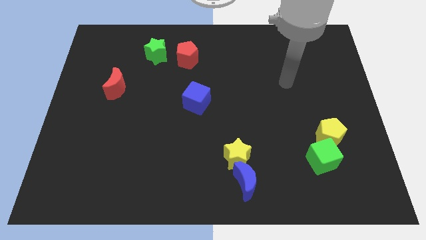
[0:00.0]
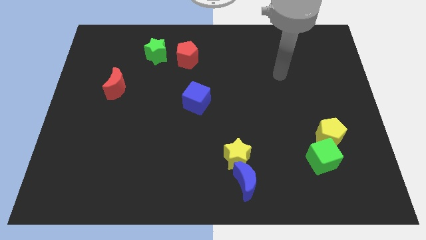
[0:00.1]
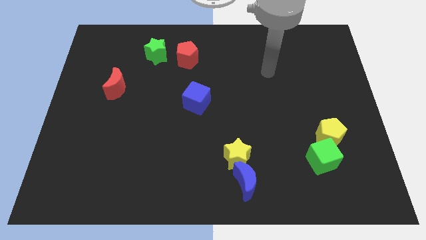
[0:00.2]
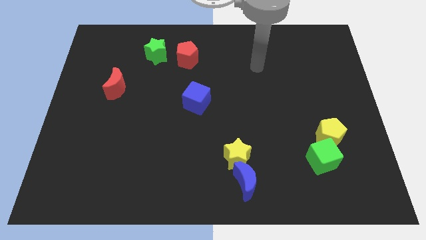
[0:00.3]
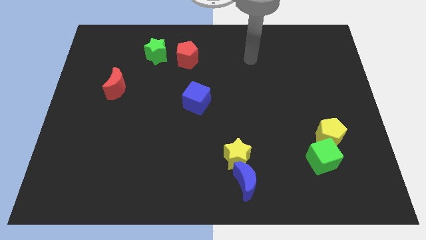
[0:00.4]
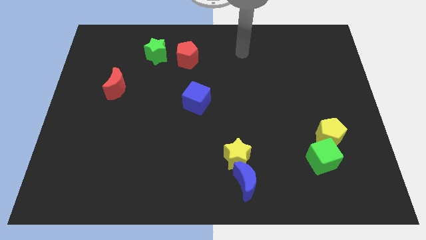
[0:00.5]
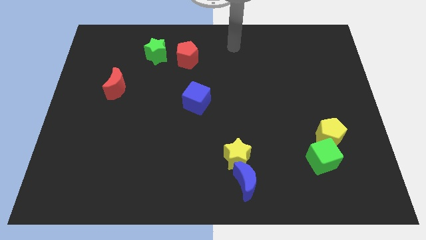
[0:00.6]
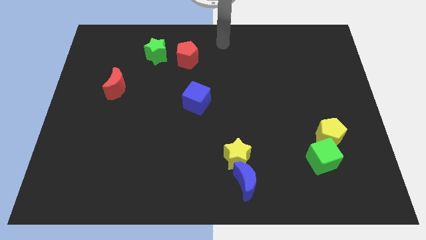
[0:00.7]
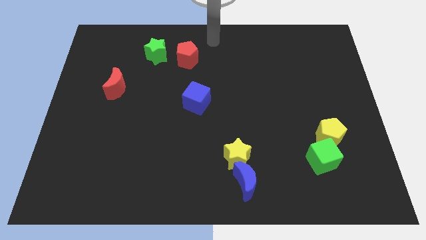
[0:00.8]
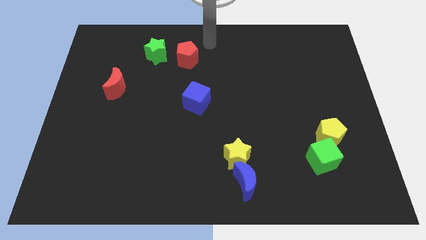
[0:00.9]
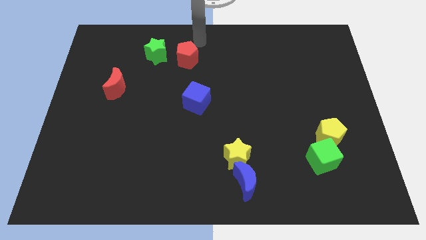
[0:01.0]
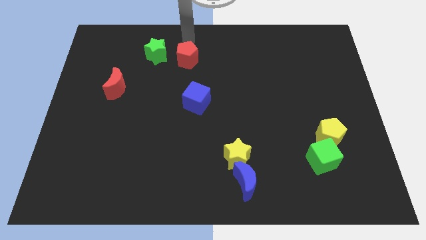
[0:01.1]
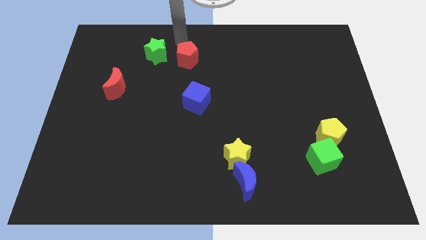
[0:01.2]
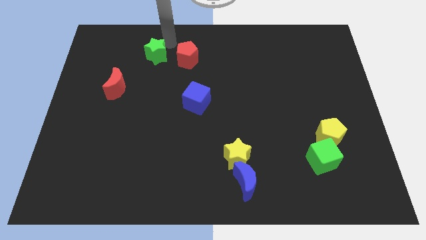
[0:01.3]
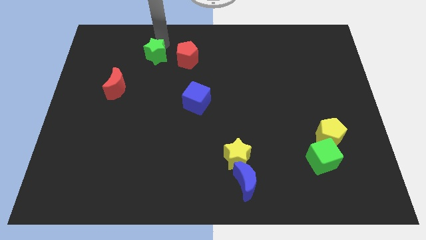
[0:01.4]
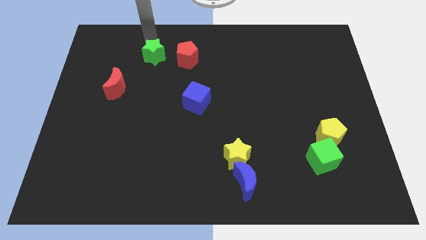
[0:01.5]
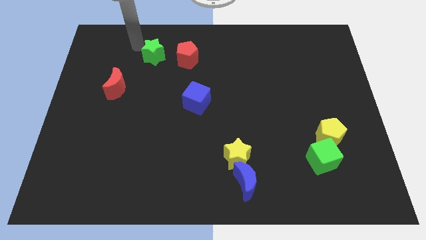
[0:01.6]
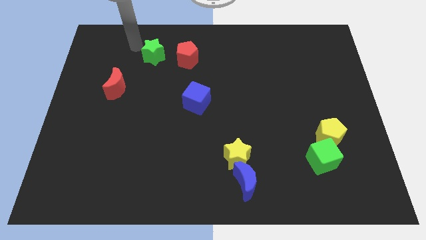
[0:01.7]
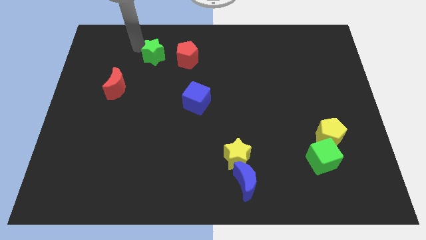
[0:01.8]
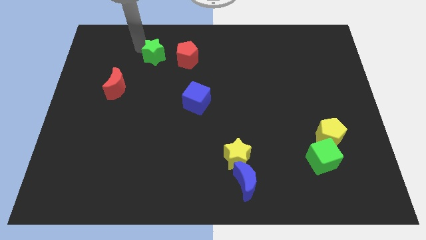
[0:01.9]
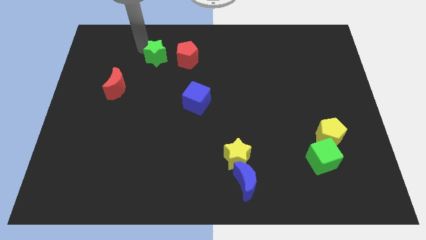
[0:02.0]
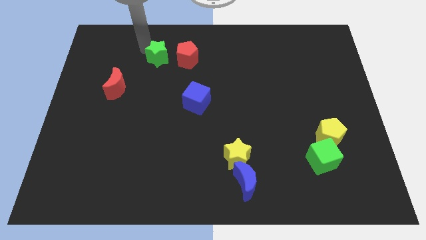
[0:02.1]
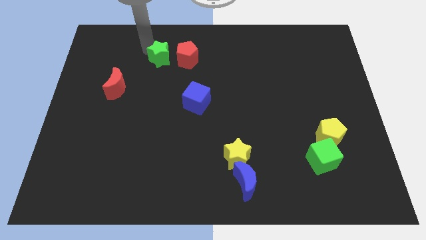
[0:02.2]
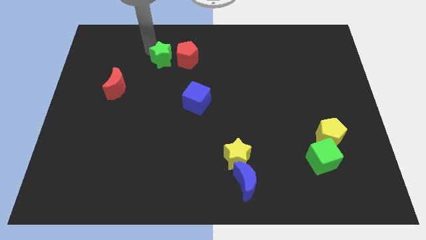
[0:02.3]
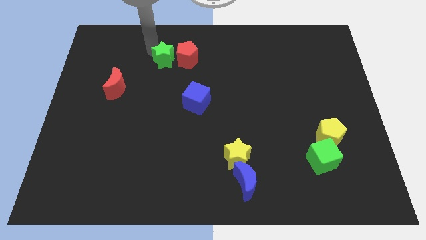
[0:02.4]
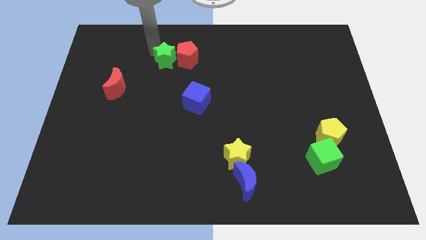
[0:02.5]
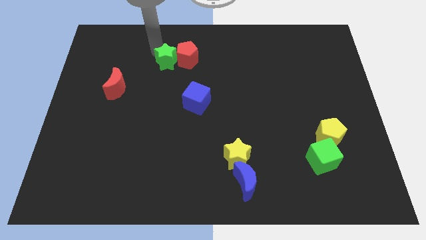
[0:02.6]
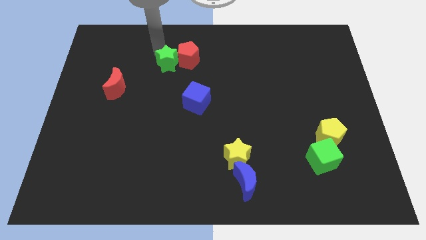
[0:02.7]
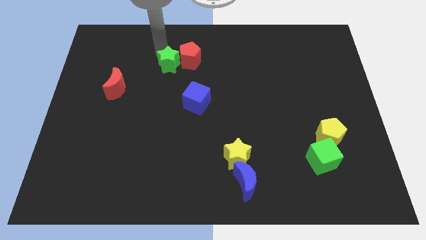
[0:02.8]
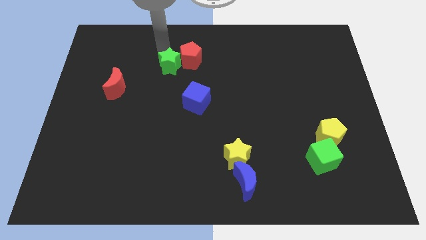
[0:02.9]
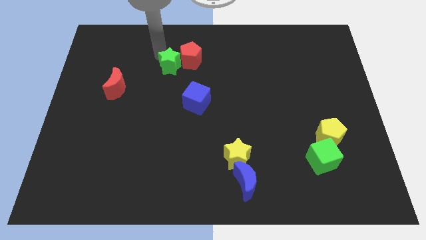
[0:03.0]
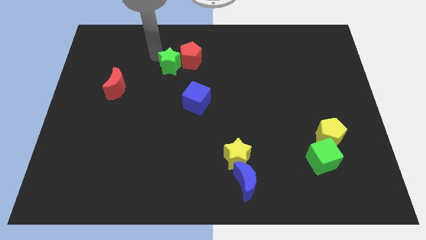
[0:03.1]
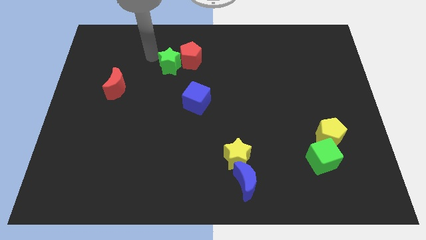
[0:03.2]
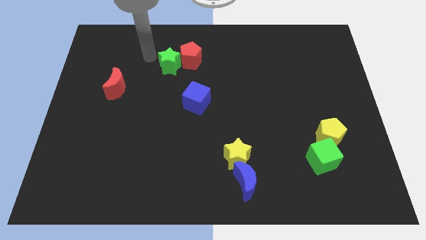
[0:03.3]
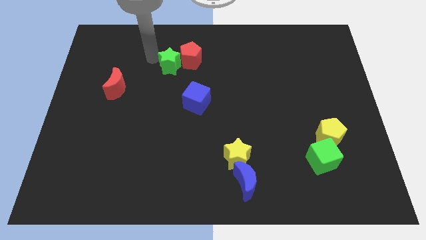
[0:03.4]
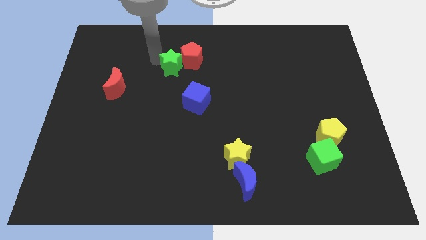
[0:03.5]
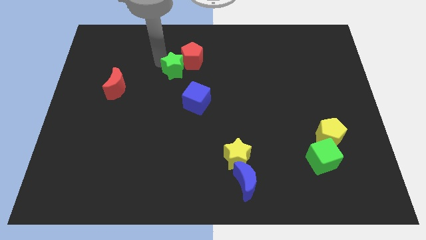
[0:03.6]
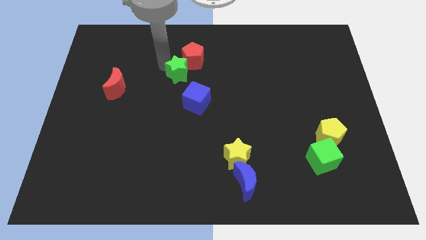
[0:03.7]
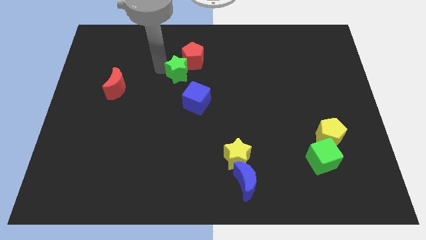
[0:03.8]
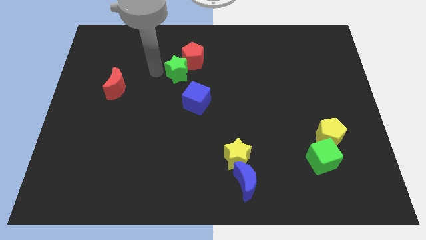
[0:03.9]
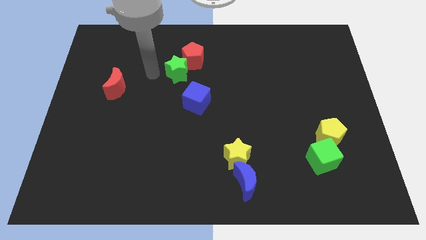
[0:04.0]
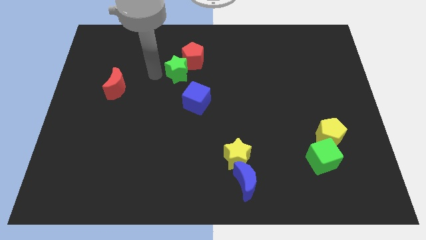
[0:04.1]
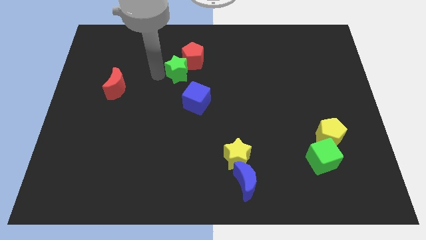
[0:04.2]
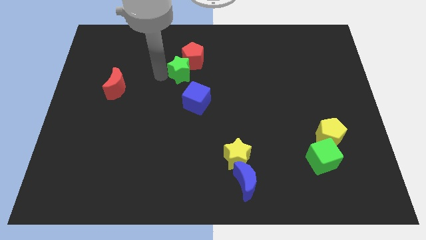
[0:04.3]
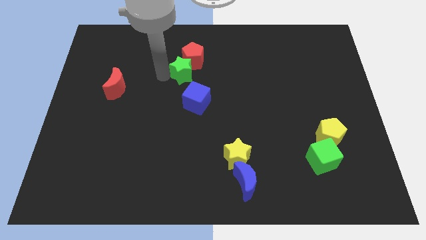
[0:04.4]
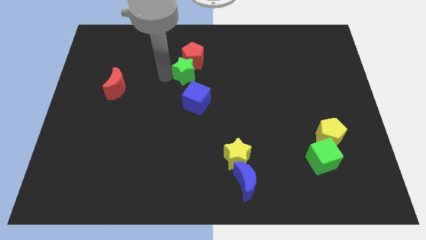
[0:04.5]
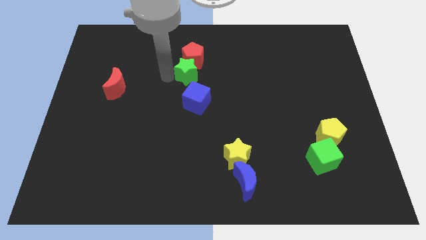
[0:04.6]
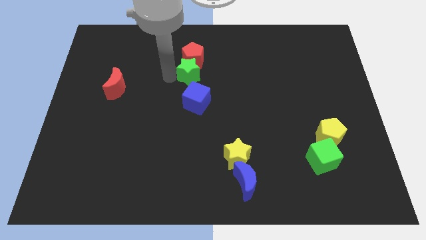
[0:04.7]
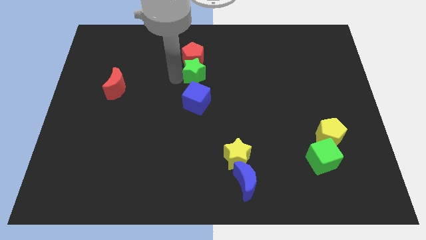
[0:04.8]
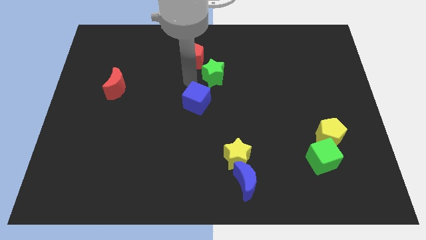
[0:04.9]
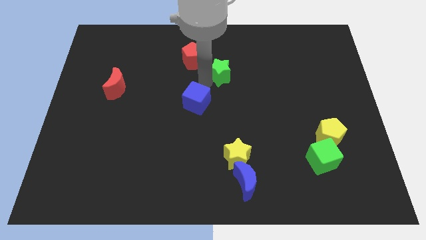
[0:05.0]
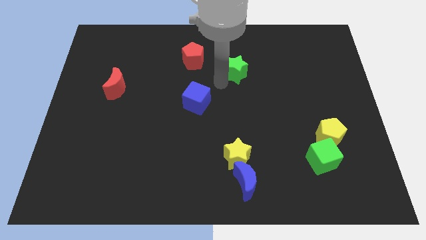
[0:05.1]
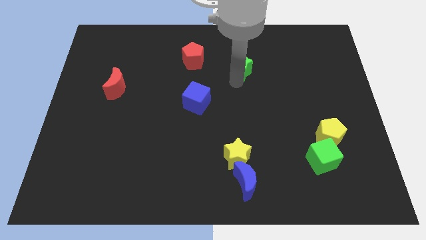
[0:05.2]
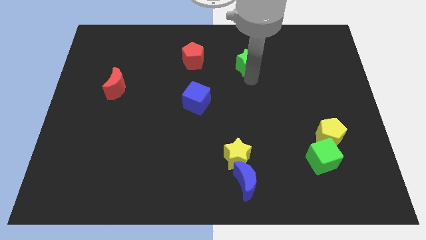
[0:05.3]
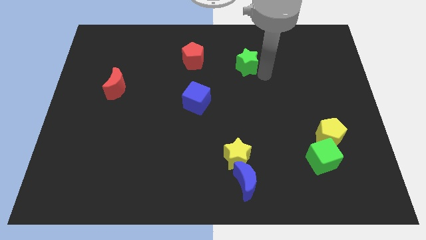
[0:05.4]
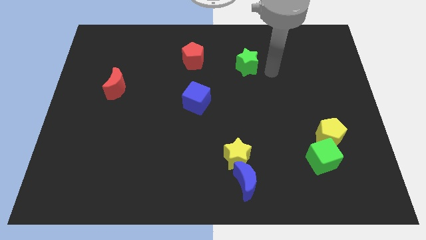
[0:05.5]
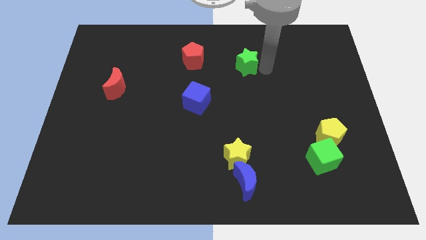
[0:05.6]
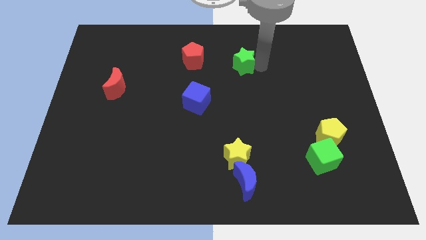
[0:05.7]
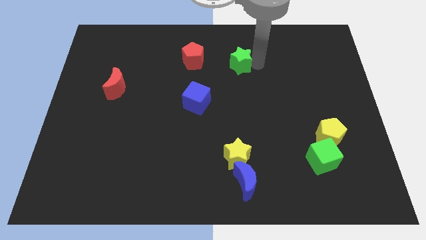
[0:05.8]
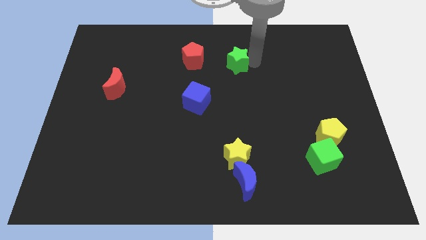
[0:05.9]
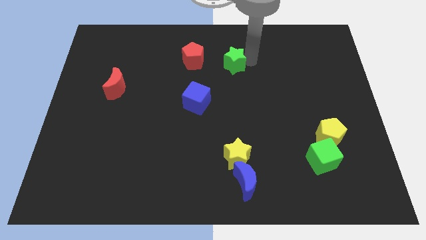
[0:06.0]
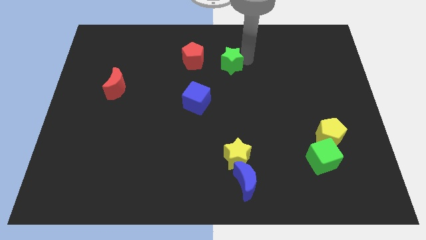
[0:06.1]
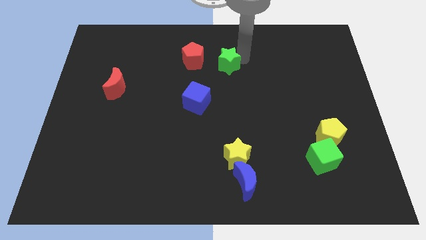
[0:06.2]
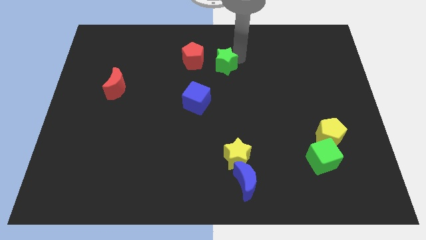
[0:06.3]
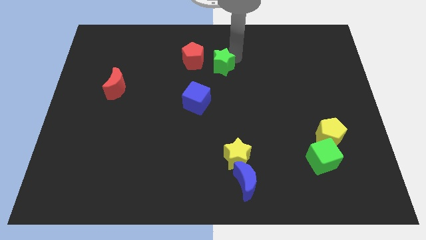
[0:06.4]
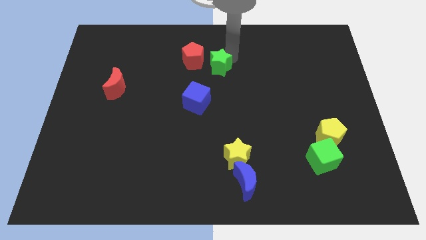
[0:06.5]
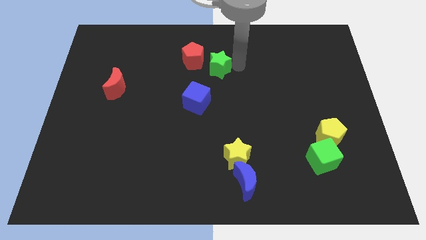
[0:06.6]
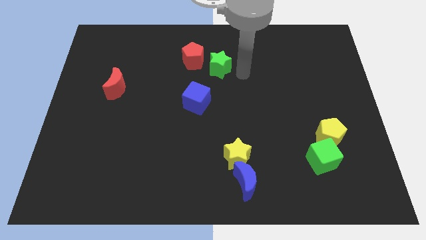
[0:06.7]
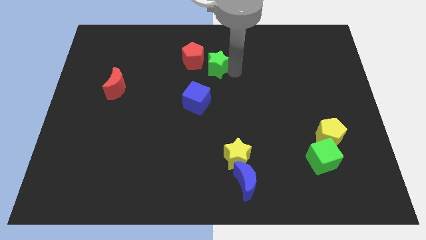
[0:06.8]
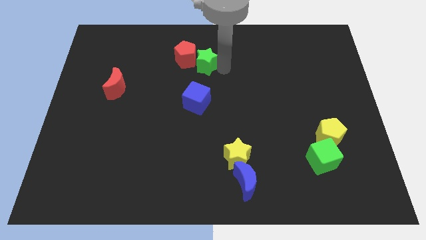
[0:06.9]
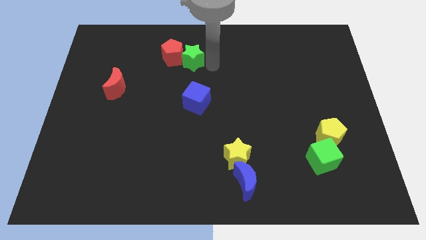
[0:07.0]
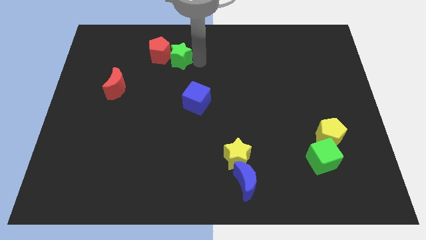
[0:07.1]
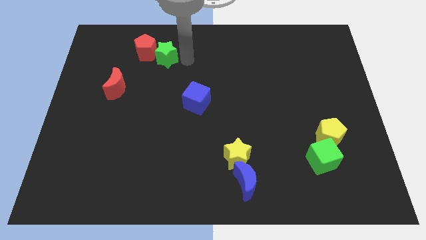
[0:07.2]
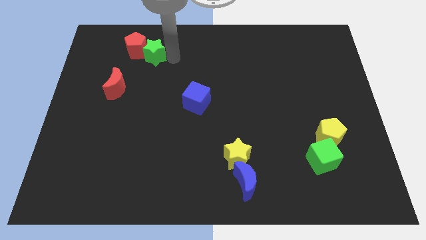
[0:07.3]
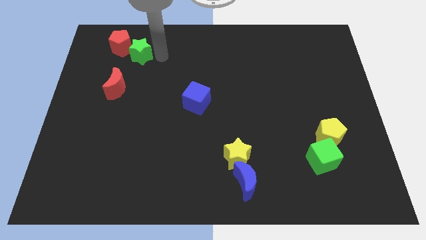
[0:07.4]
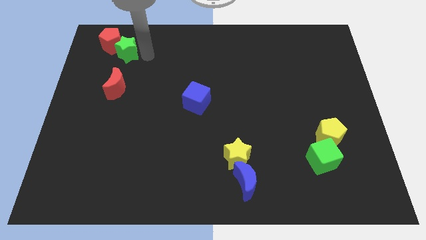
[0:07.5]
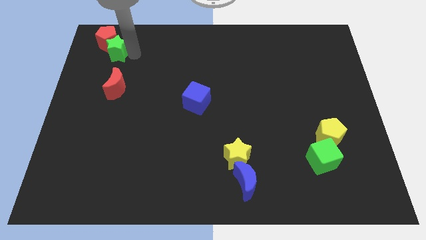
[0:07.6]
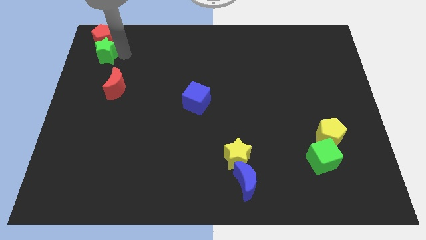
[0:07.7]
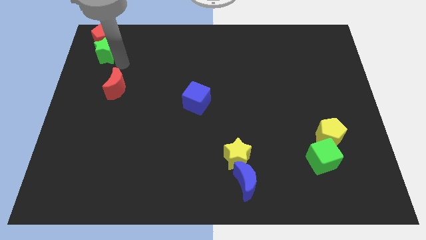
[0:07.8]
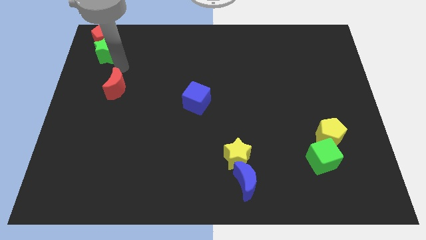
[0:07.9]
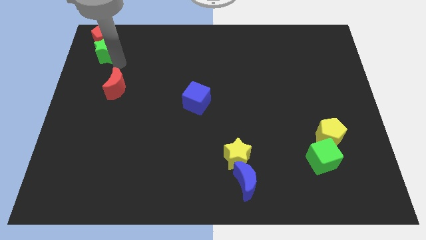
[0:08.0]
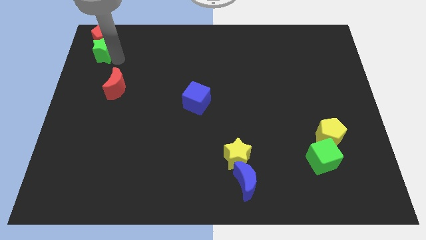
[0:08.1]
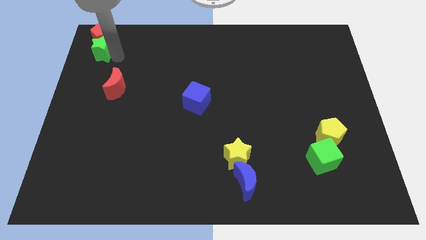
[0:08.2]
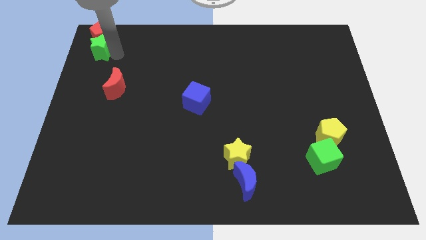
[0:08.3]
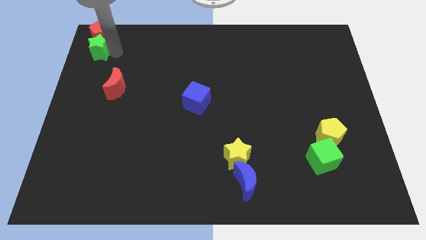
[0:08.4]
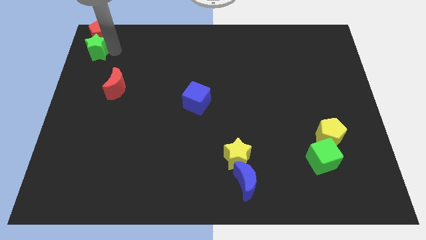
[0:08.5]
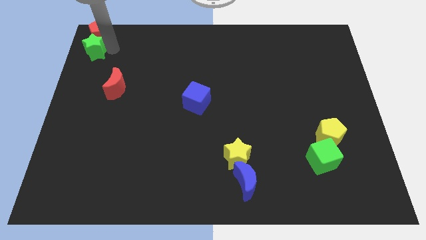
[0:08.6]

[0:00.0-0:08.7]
put the green star to the top left corner
